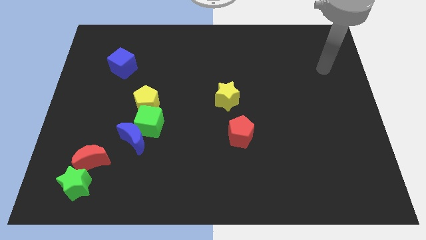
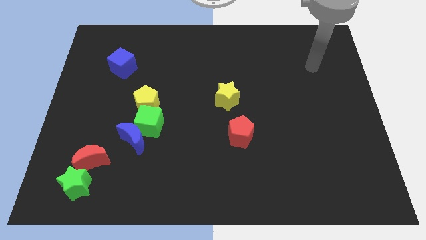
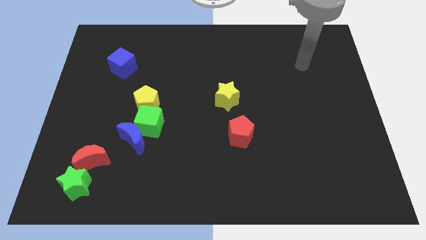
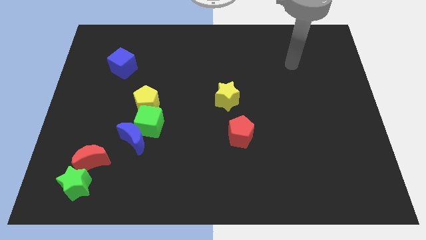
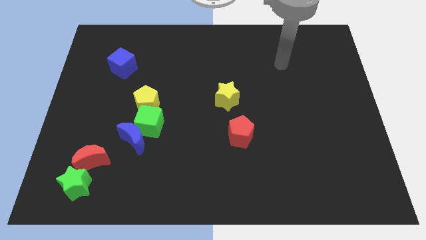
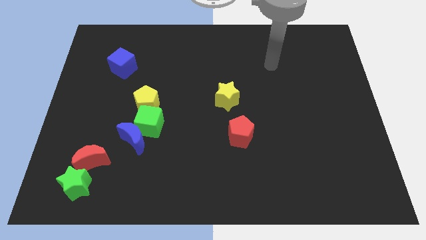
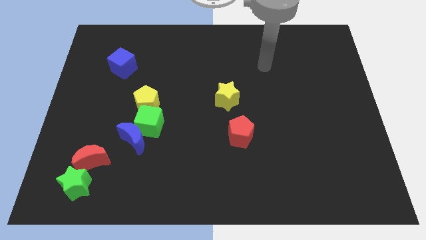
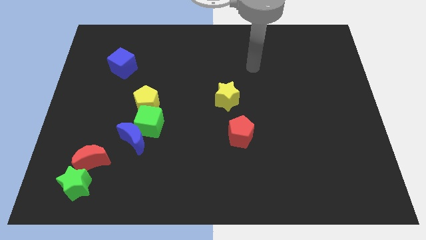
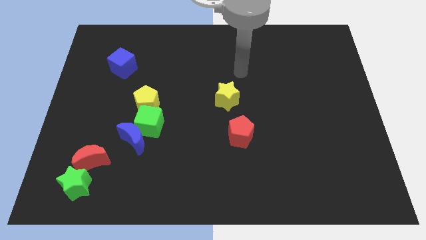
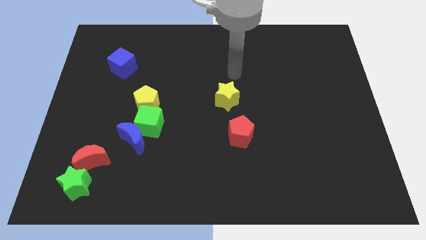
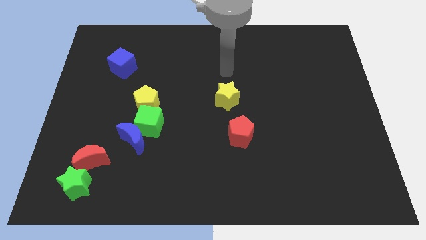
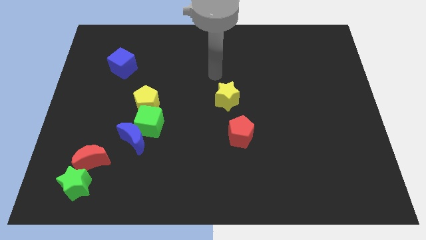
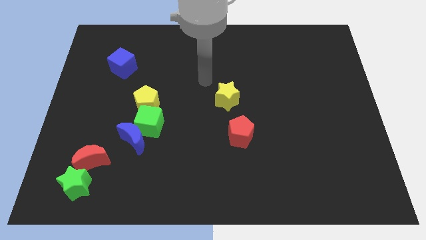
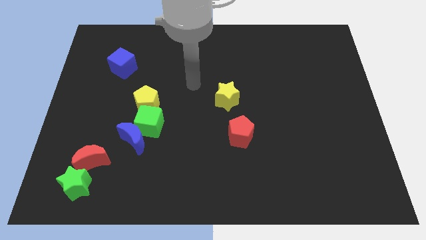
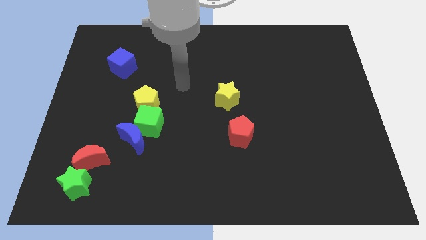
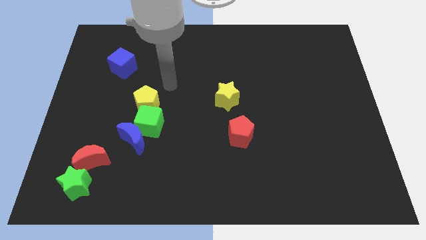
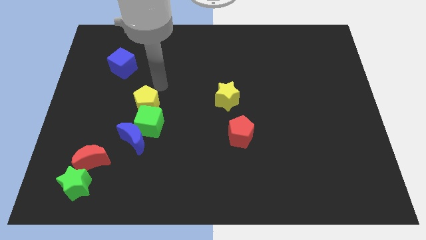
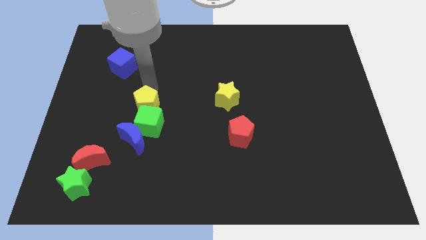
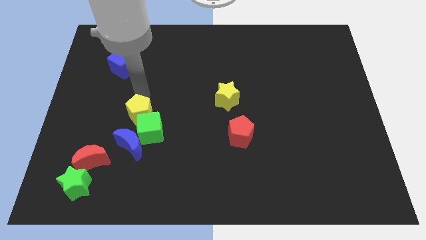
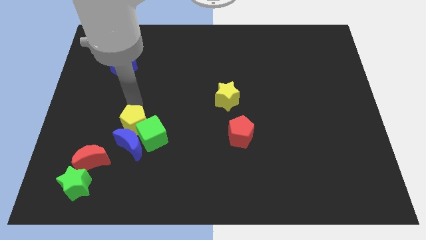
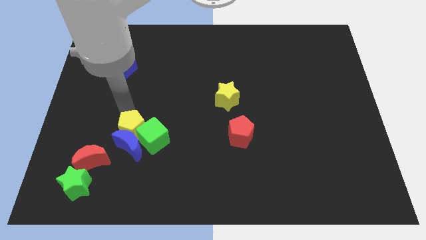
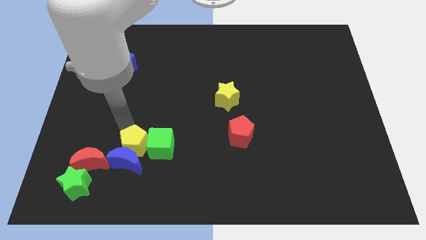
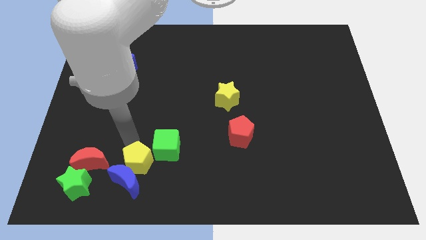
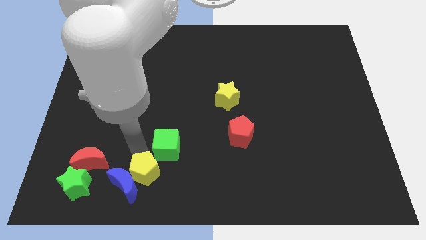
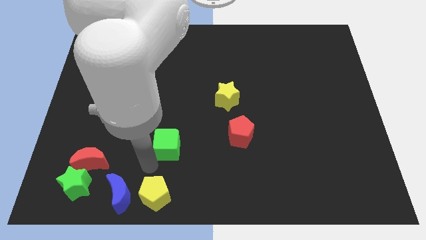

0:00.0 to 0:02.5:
separate the green cube from the blue moon and yellow pentagon

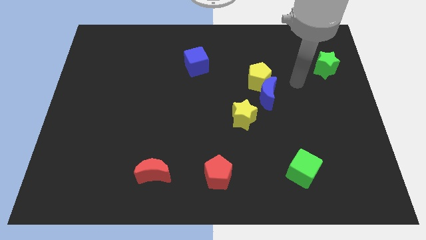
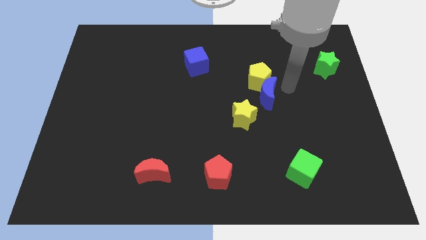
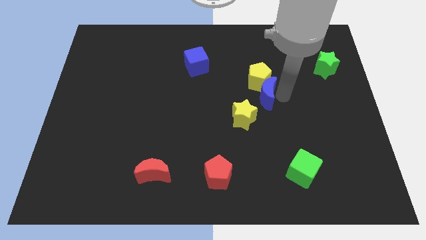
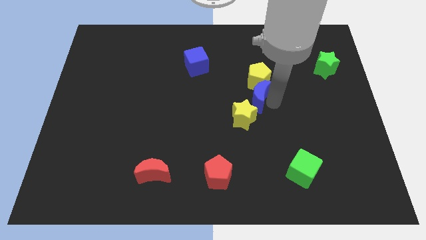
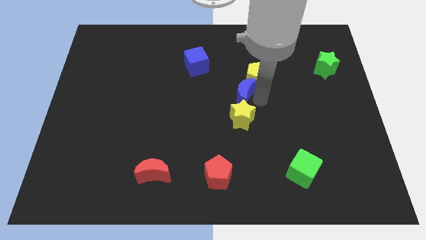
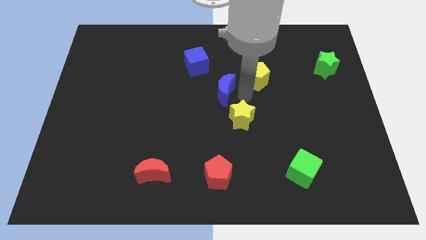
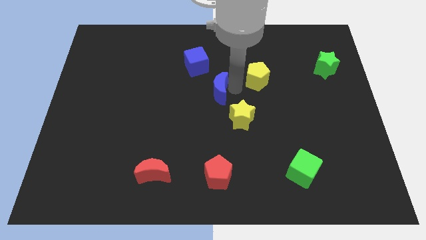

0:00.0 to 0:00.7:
pull the yellow pentagon apart from the blue moon

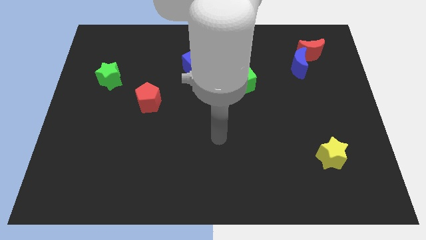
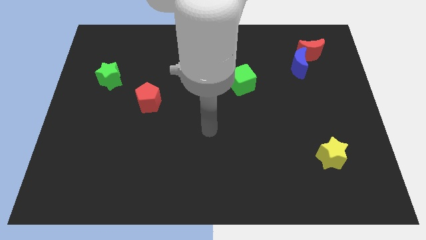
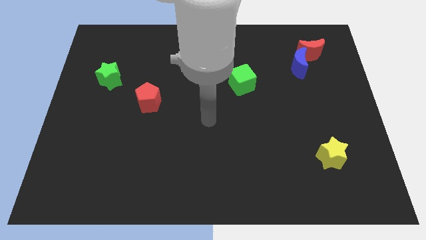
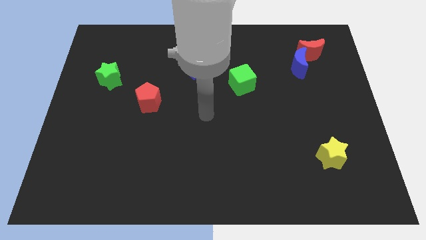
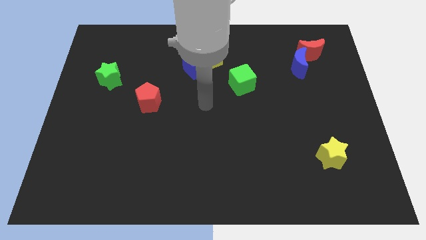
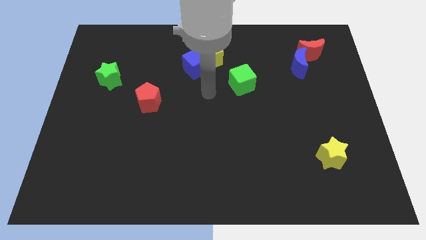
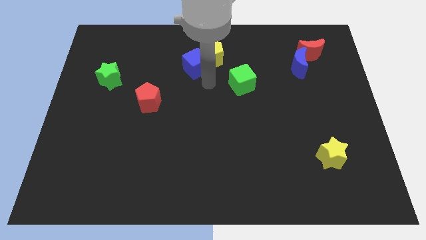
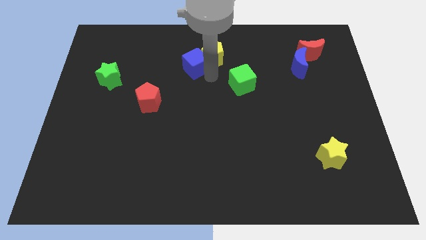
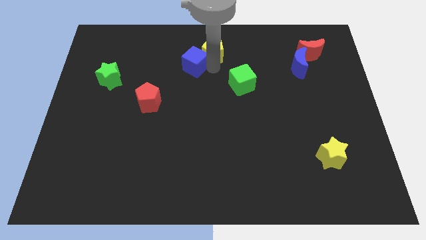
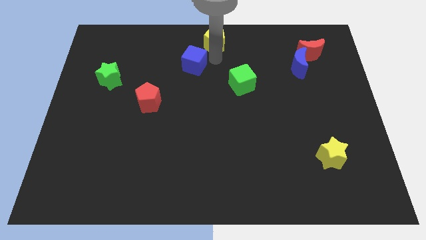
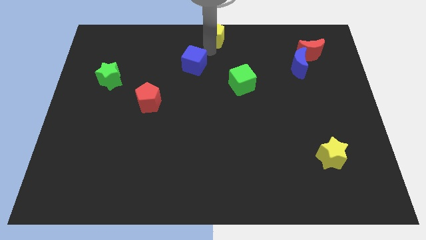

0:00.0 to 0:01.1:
move the blue cube away from the yellow pentagon

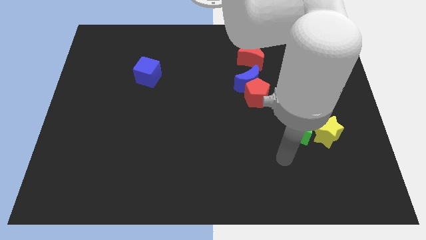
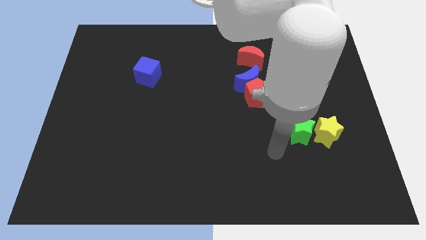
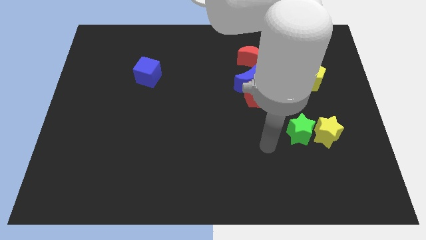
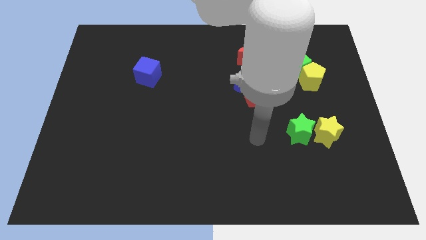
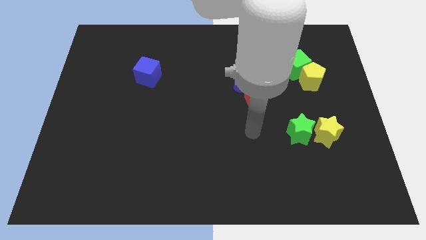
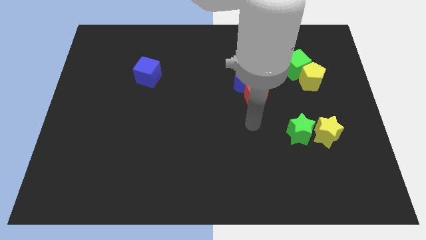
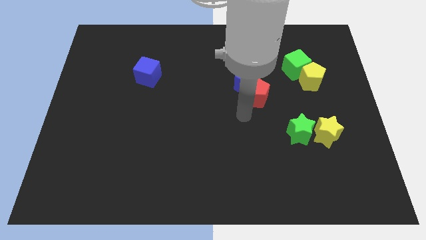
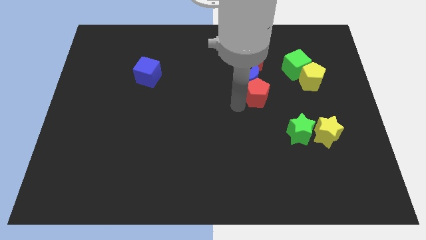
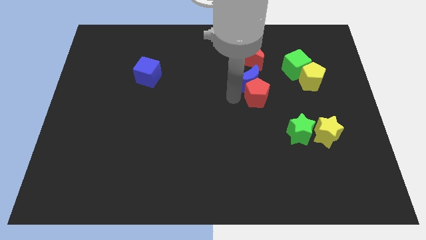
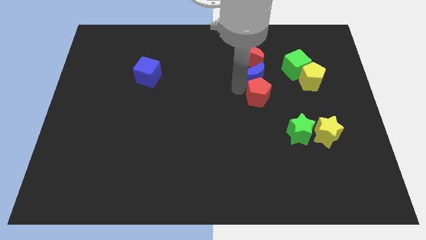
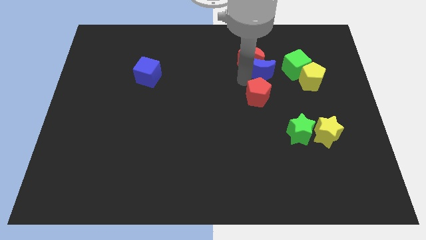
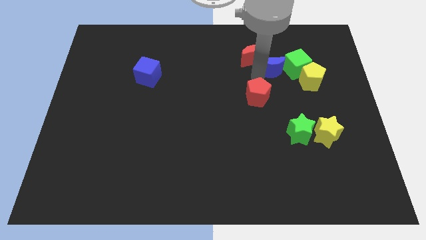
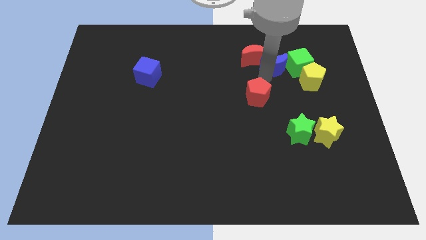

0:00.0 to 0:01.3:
separate the red pentagon from the blue moon

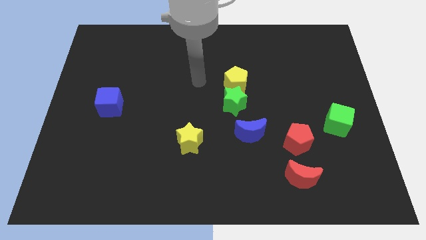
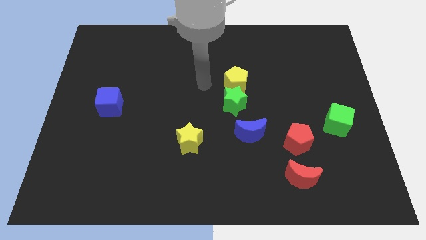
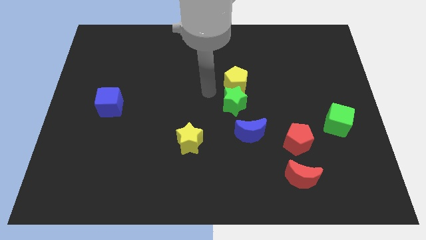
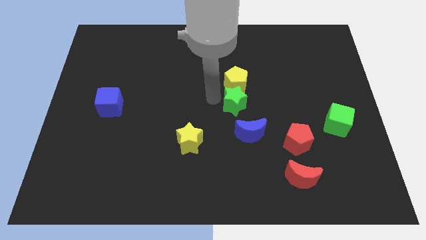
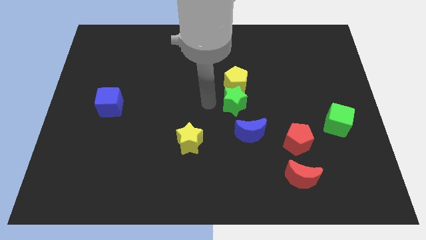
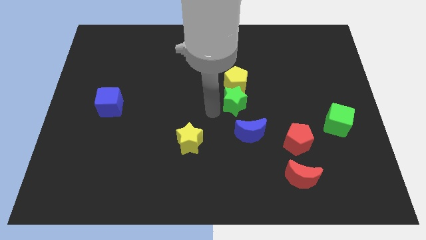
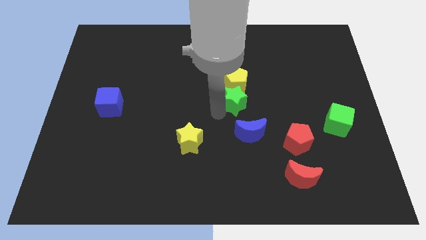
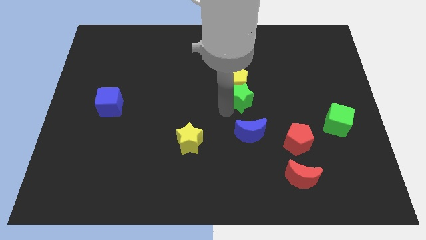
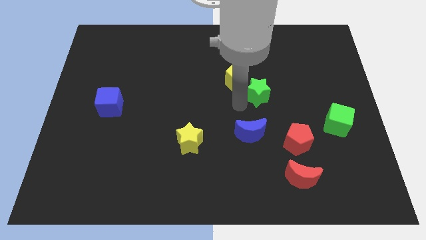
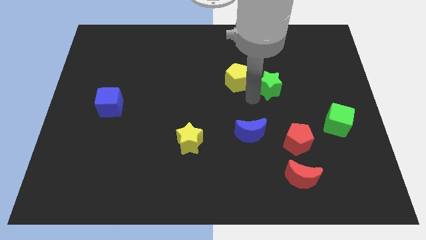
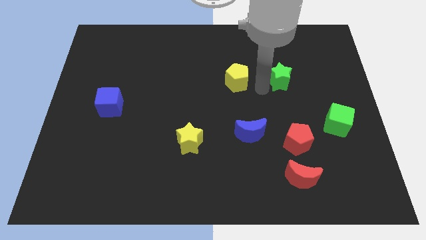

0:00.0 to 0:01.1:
pull the yellow pentagon apart from the green star

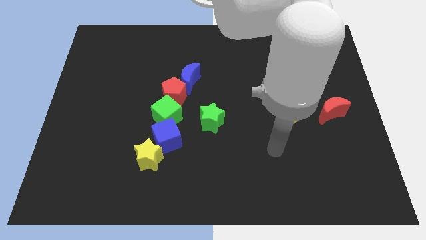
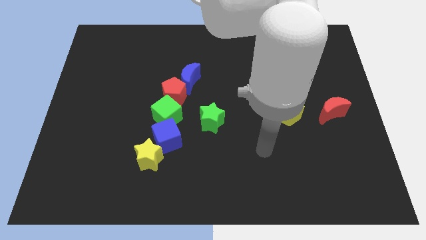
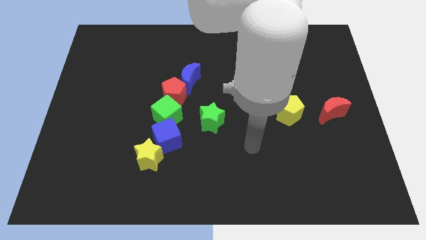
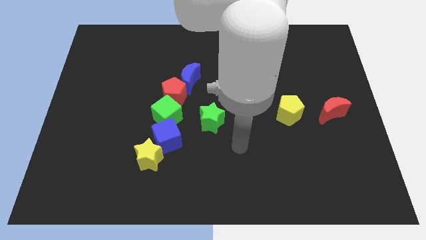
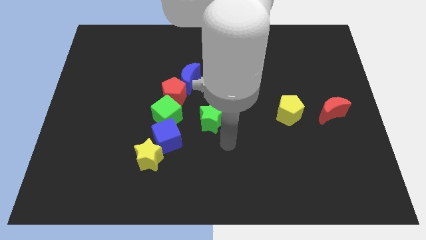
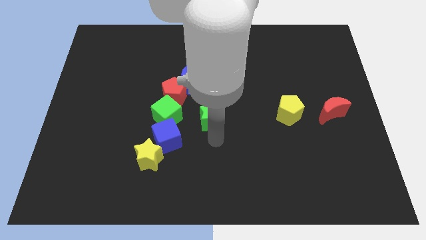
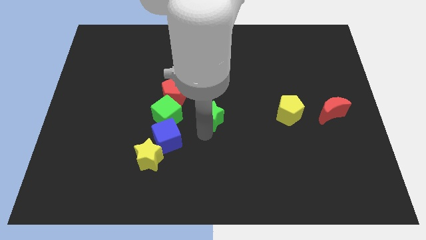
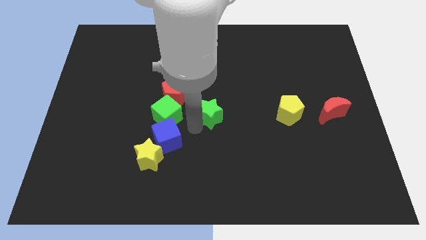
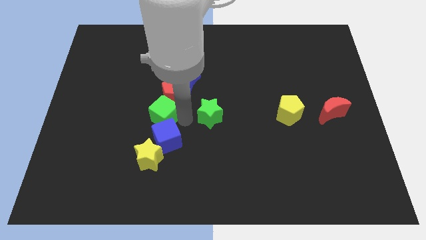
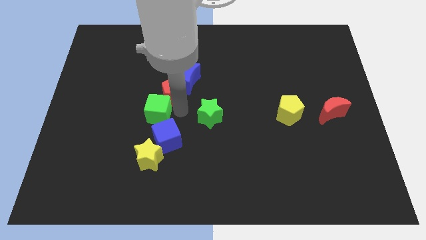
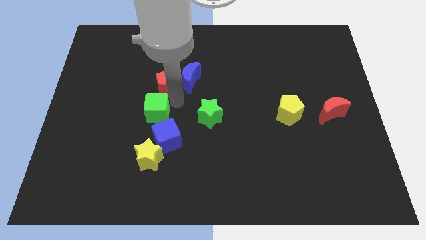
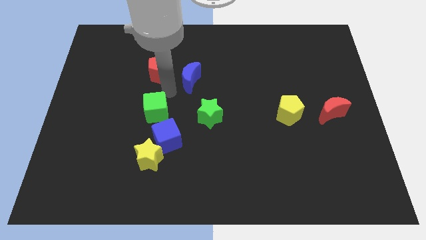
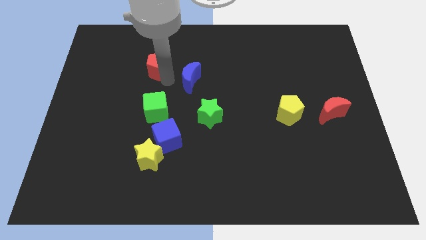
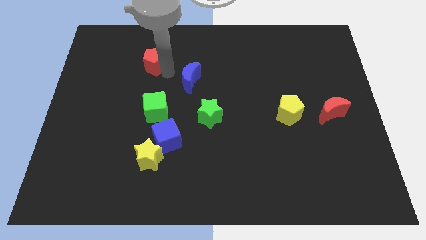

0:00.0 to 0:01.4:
move the blue moon away from the red pentagon

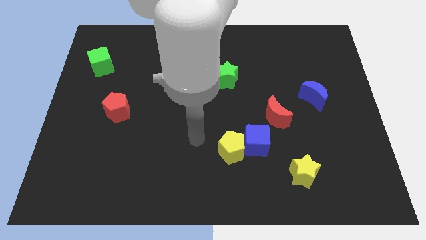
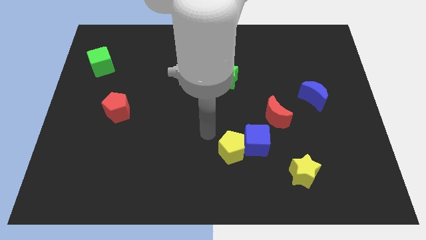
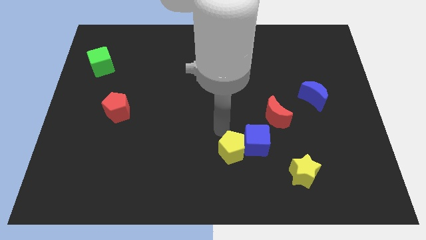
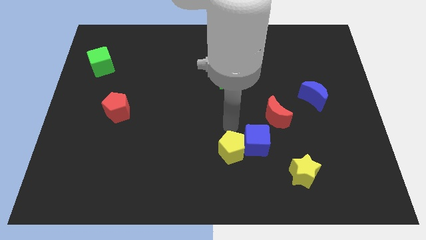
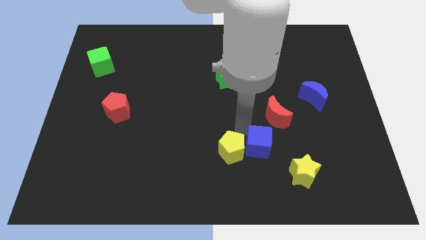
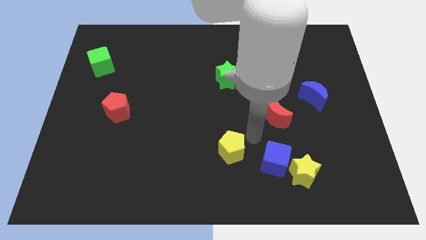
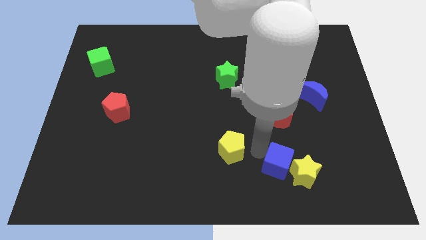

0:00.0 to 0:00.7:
move the yellow pentagon away from the blue cube

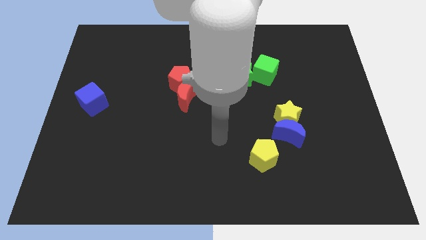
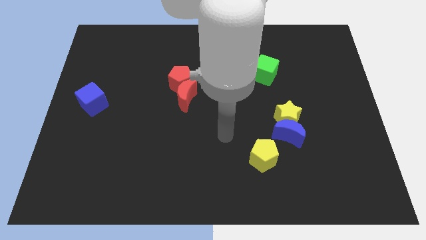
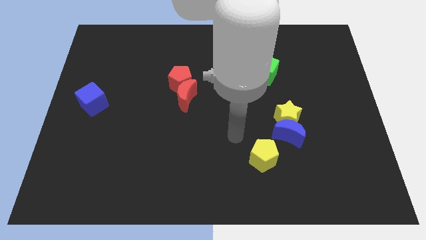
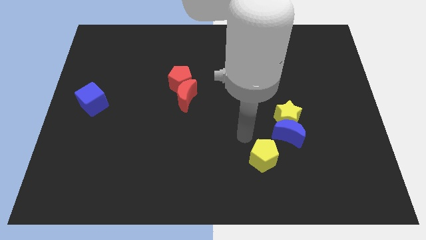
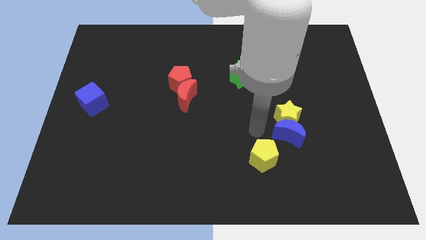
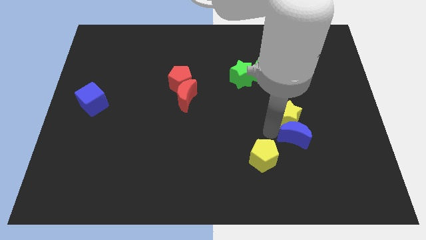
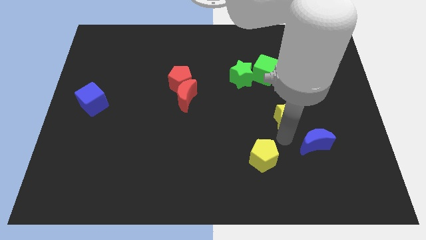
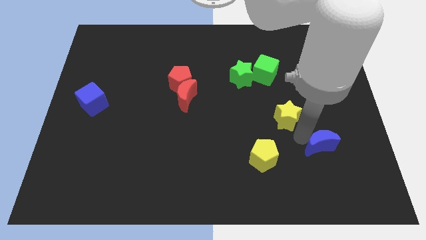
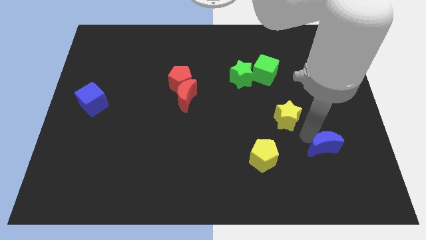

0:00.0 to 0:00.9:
separate the yellow star from the blue moon
